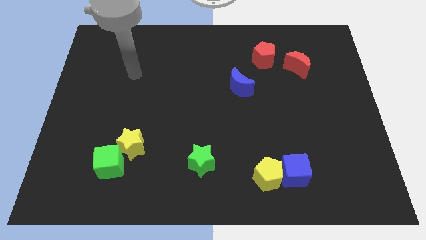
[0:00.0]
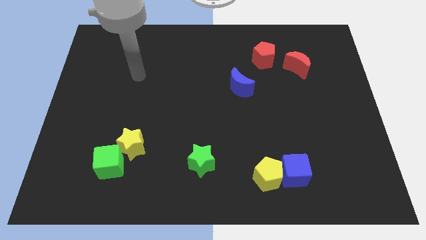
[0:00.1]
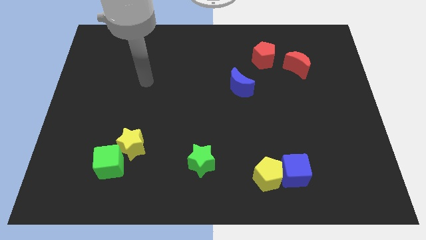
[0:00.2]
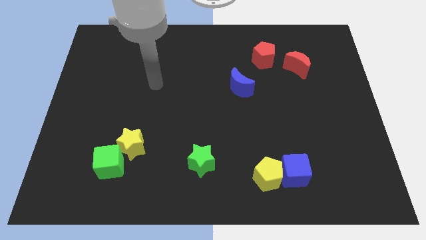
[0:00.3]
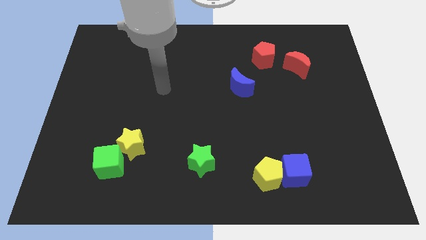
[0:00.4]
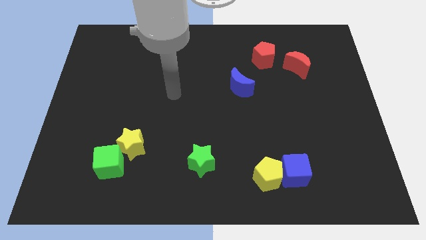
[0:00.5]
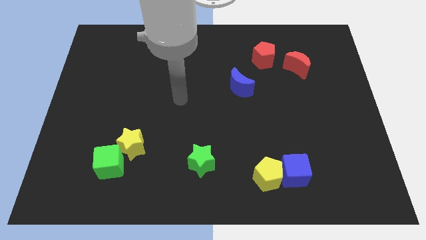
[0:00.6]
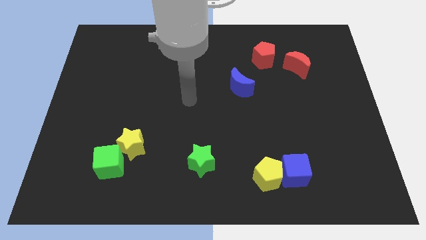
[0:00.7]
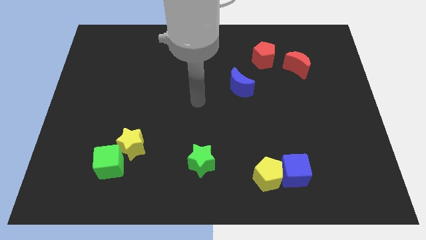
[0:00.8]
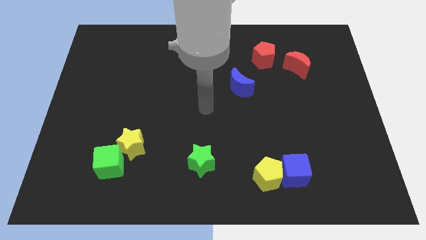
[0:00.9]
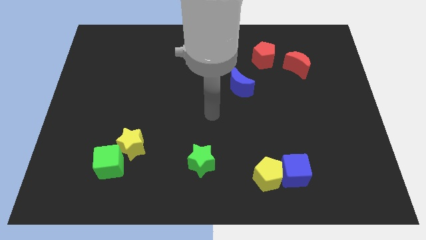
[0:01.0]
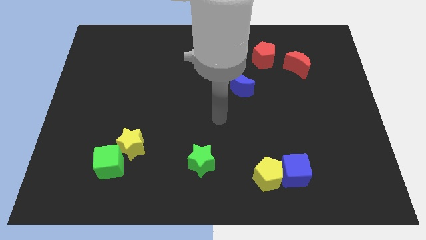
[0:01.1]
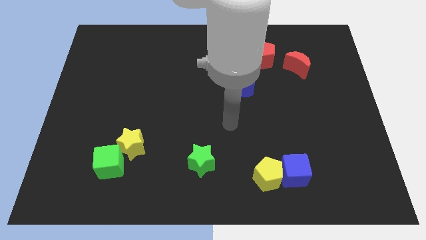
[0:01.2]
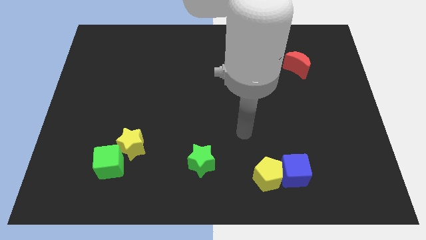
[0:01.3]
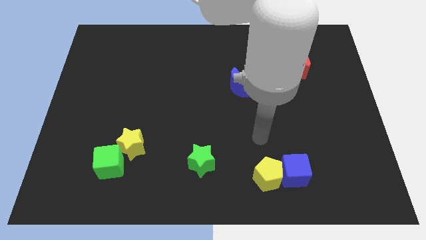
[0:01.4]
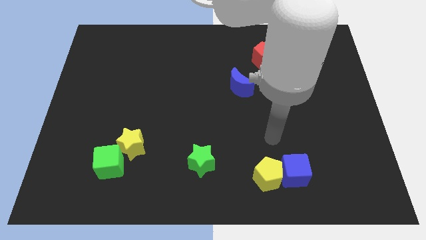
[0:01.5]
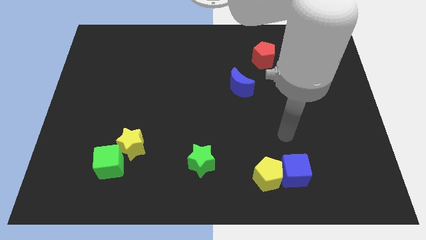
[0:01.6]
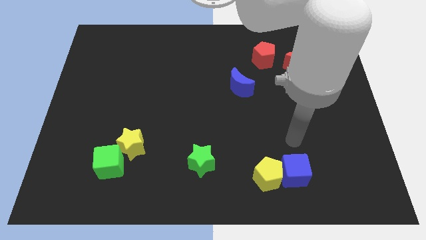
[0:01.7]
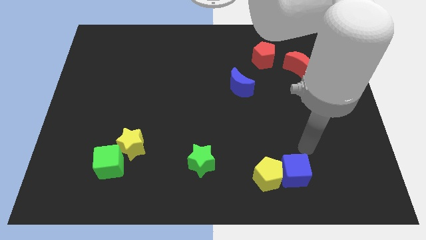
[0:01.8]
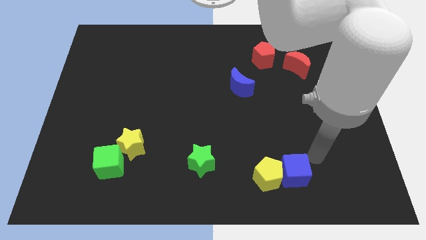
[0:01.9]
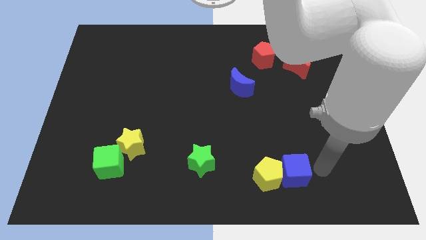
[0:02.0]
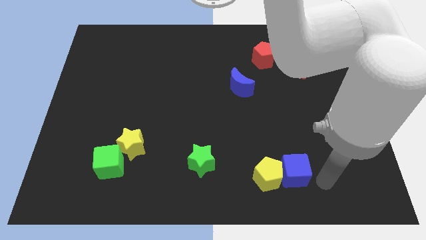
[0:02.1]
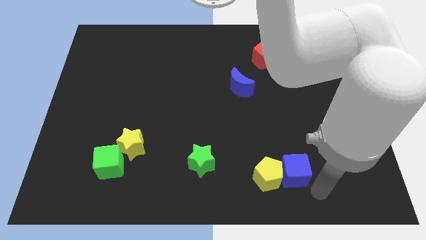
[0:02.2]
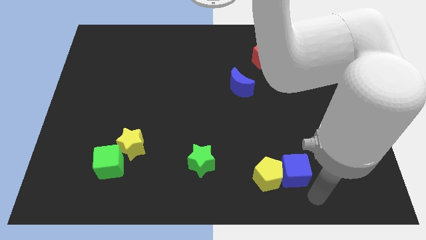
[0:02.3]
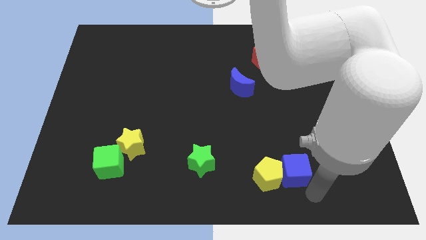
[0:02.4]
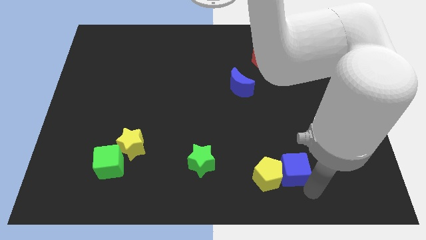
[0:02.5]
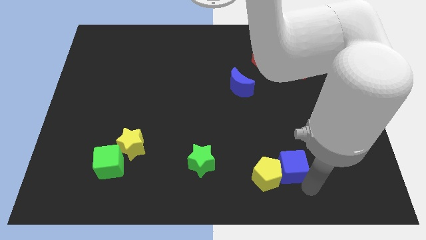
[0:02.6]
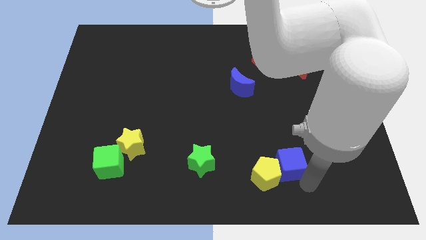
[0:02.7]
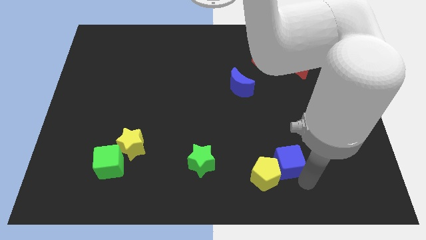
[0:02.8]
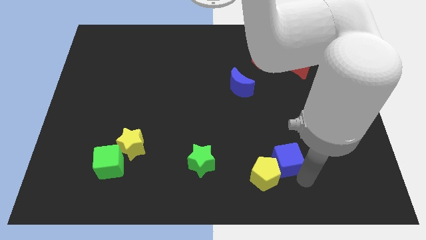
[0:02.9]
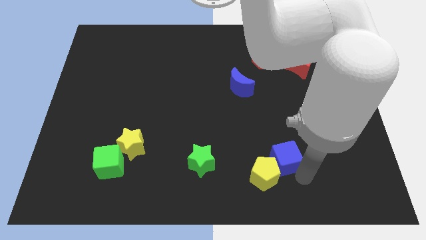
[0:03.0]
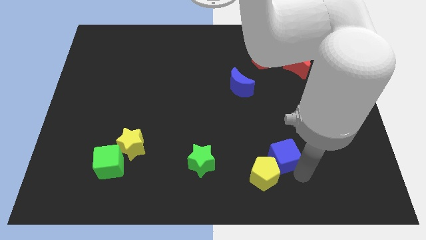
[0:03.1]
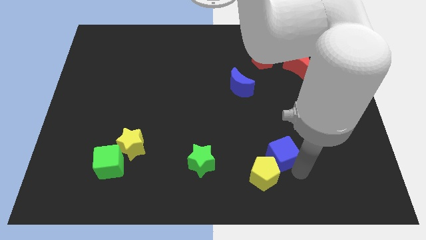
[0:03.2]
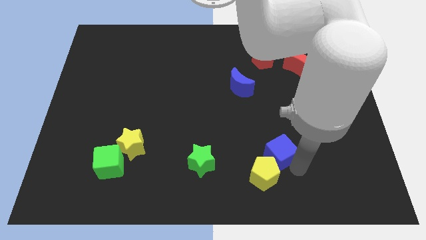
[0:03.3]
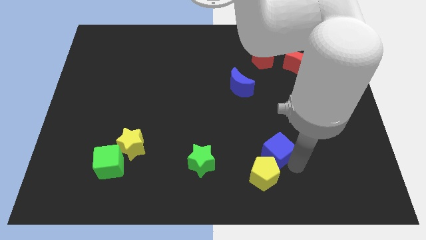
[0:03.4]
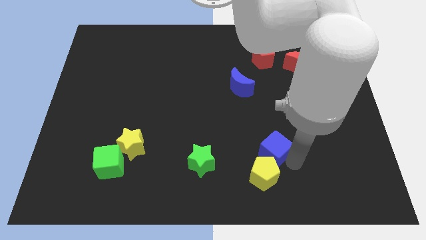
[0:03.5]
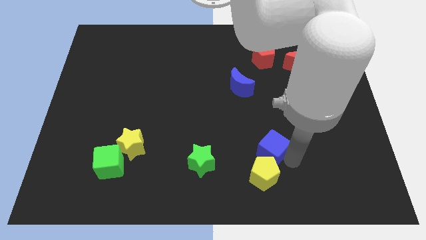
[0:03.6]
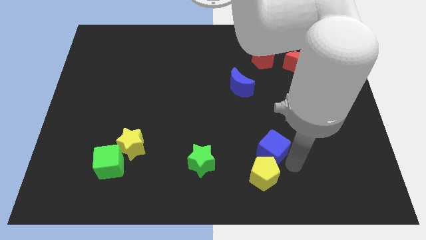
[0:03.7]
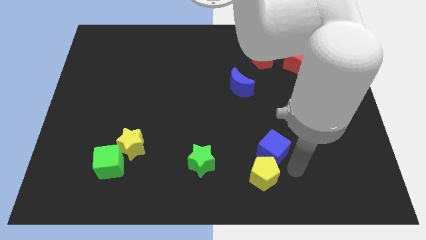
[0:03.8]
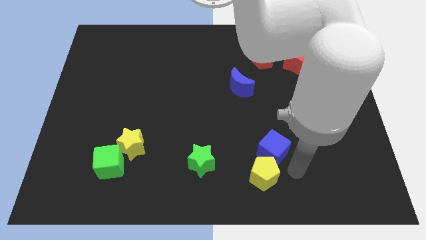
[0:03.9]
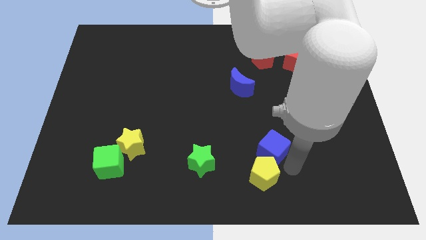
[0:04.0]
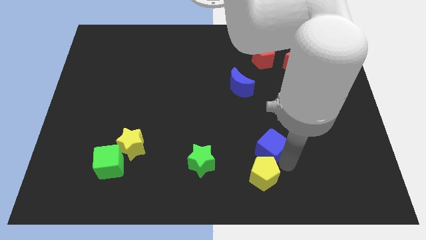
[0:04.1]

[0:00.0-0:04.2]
move the blue cube upwards and then to the left somewhat

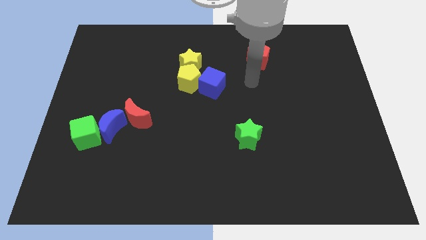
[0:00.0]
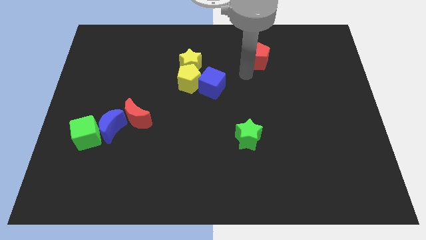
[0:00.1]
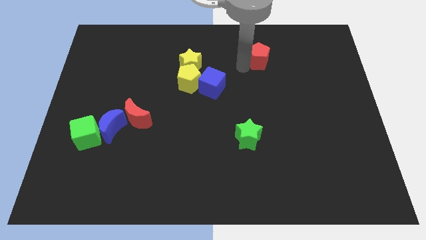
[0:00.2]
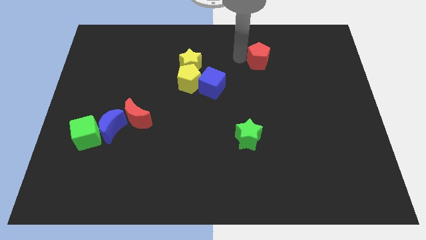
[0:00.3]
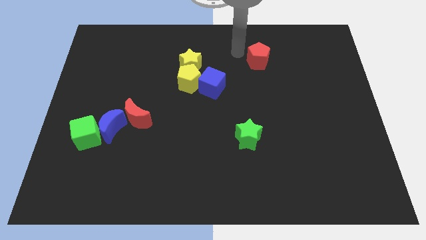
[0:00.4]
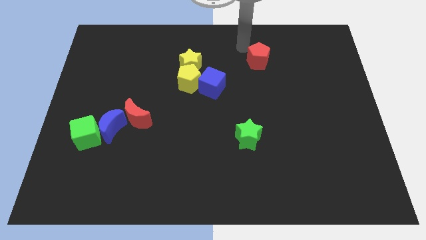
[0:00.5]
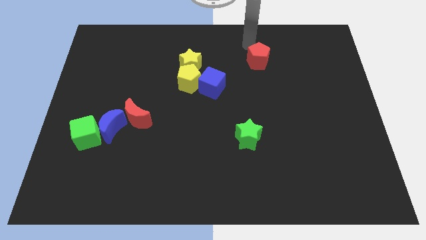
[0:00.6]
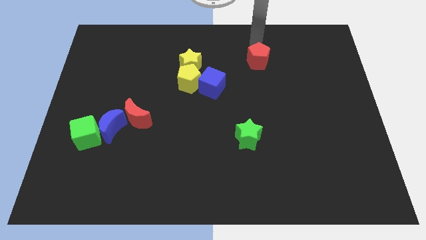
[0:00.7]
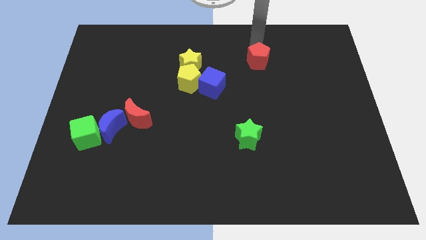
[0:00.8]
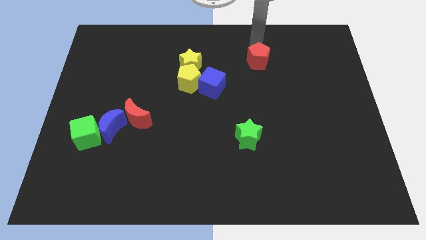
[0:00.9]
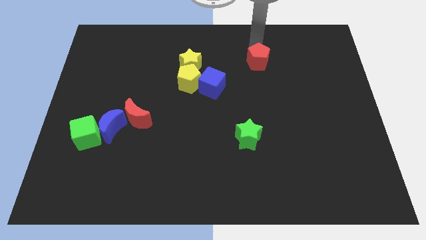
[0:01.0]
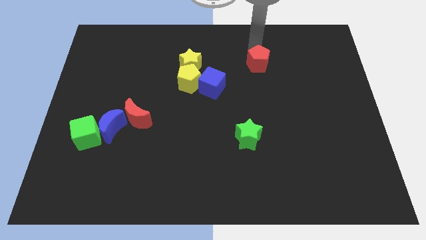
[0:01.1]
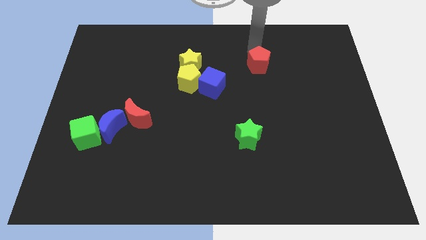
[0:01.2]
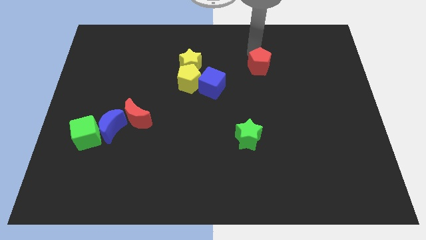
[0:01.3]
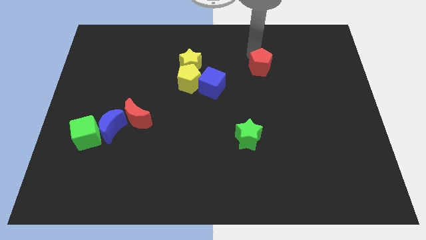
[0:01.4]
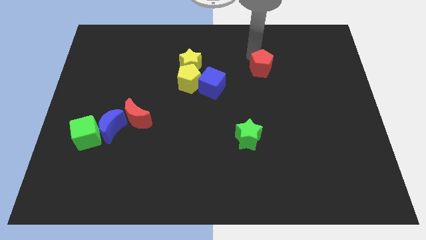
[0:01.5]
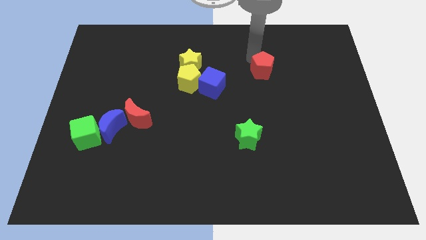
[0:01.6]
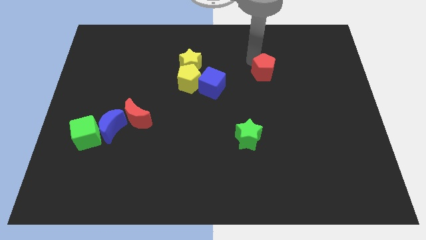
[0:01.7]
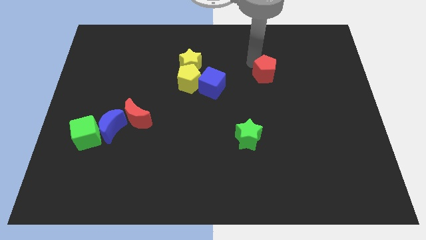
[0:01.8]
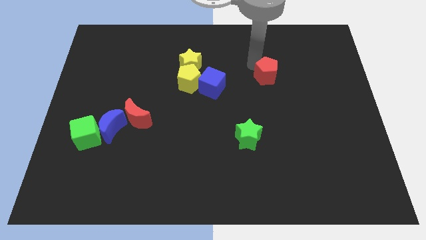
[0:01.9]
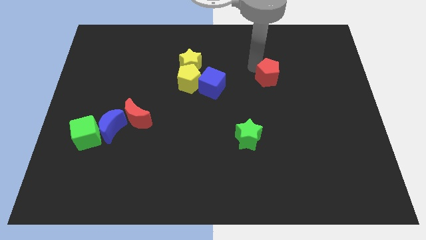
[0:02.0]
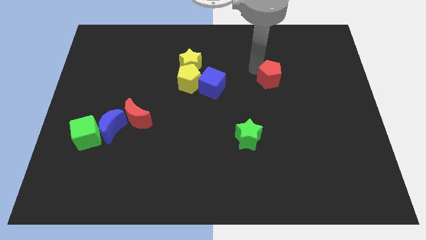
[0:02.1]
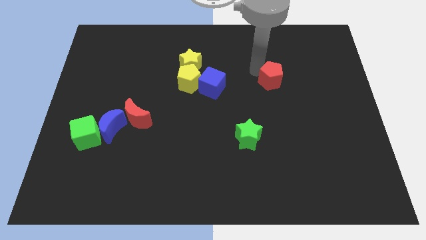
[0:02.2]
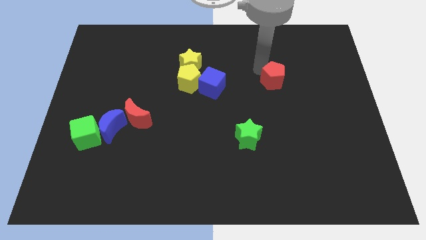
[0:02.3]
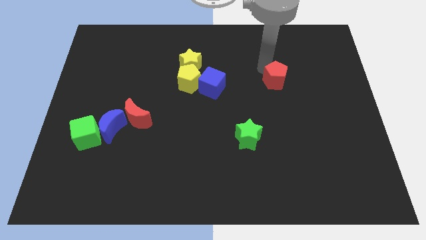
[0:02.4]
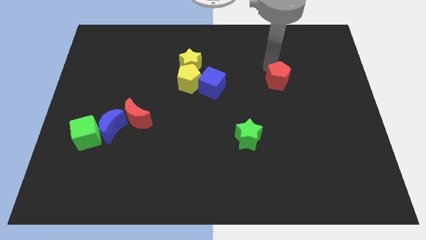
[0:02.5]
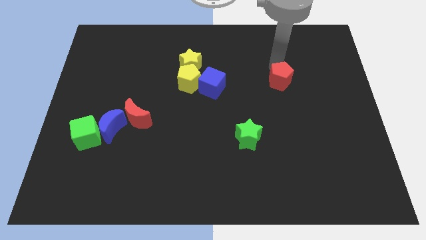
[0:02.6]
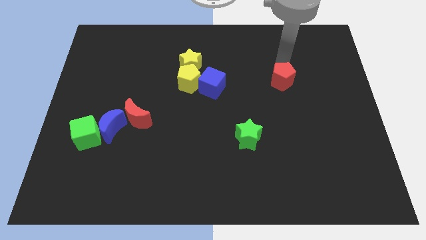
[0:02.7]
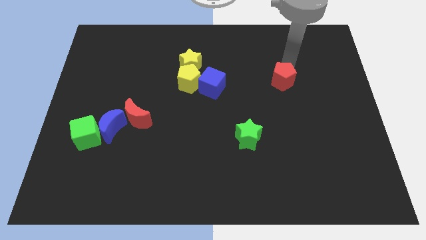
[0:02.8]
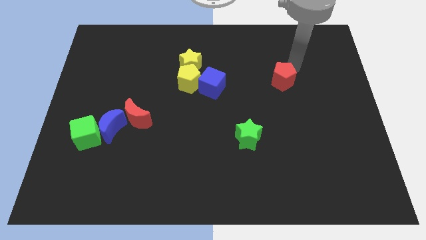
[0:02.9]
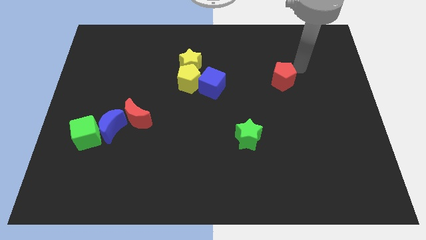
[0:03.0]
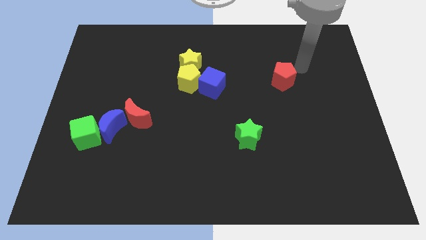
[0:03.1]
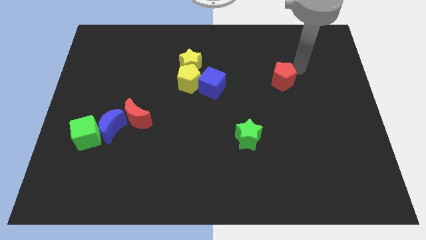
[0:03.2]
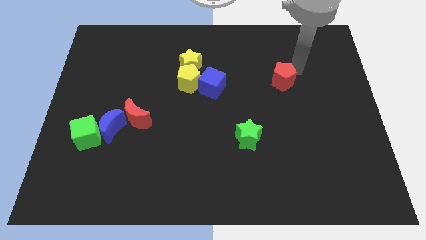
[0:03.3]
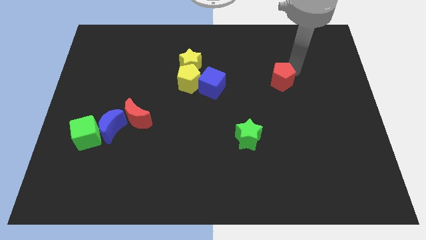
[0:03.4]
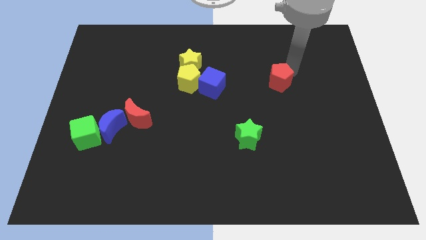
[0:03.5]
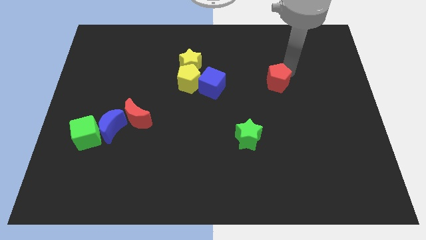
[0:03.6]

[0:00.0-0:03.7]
move the red pentagon down a little
